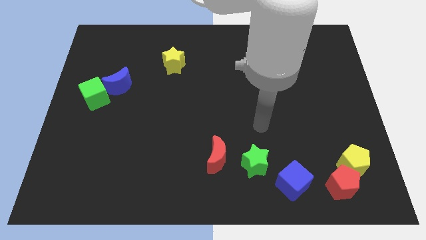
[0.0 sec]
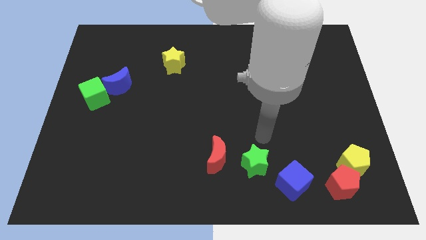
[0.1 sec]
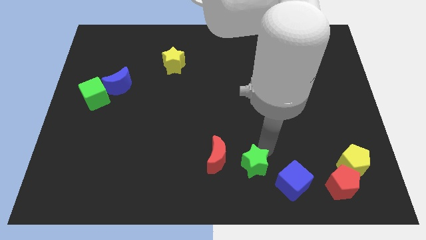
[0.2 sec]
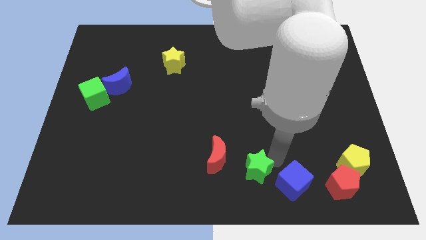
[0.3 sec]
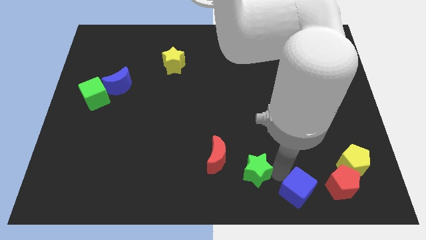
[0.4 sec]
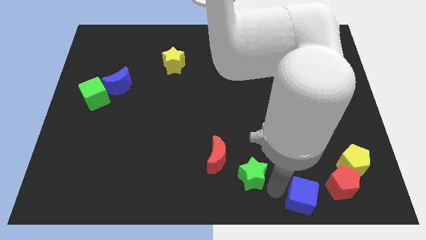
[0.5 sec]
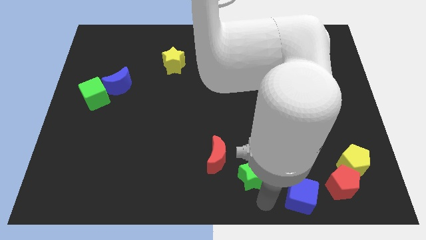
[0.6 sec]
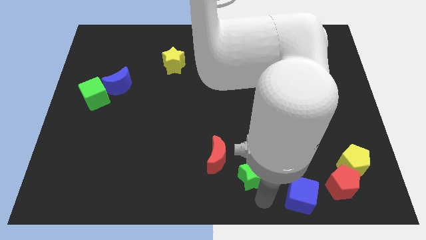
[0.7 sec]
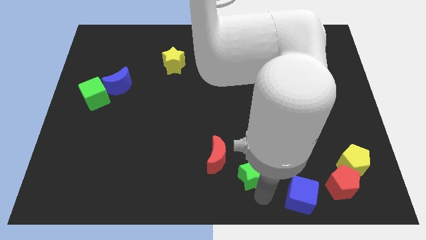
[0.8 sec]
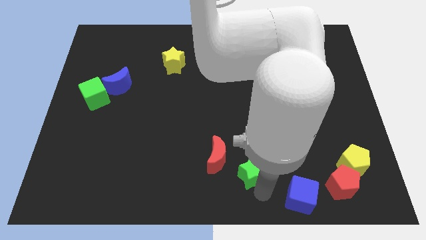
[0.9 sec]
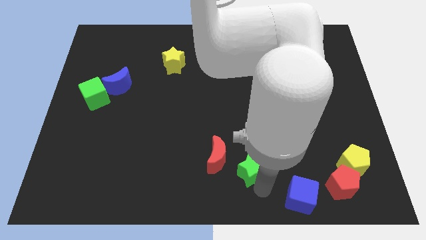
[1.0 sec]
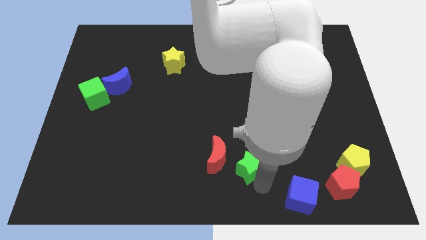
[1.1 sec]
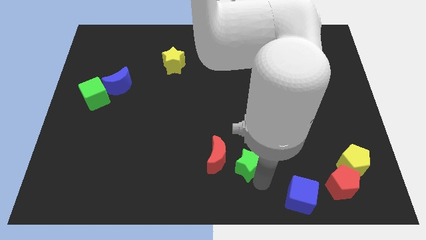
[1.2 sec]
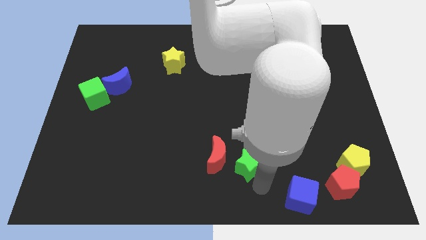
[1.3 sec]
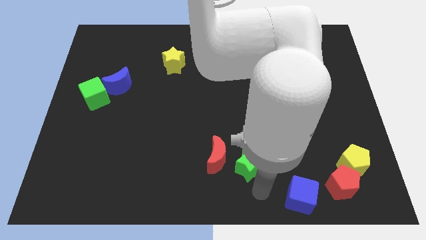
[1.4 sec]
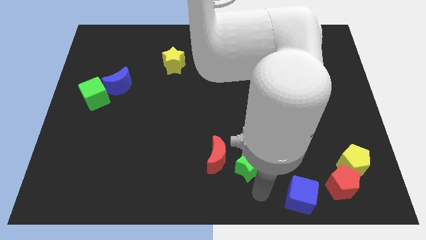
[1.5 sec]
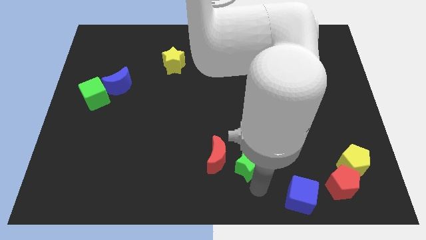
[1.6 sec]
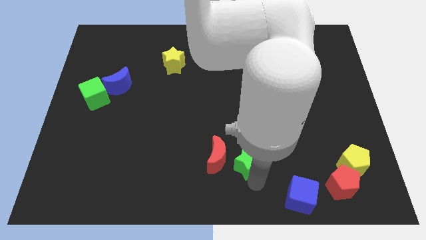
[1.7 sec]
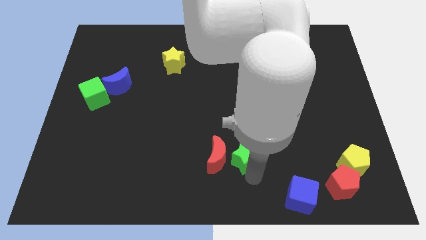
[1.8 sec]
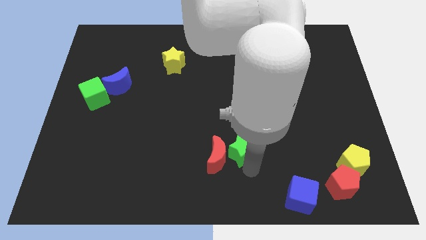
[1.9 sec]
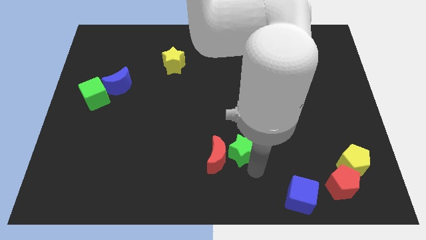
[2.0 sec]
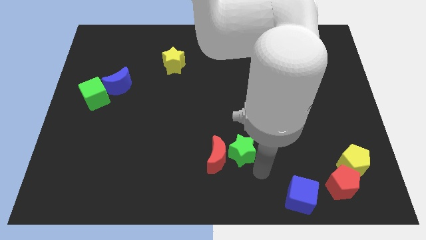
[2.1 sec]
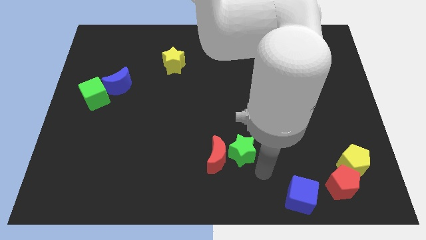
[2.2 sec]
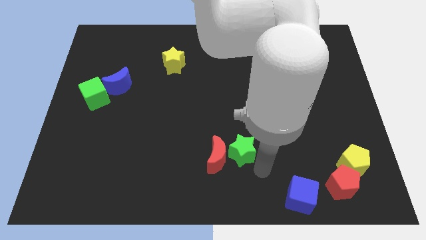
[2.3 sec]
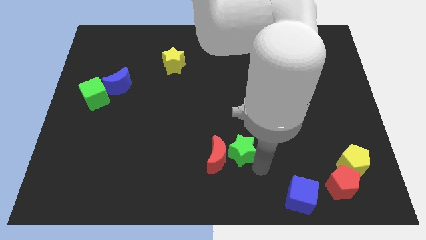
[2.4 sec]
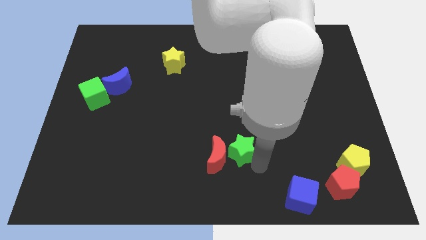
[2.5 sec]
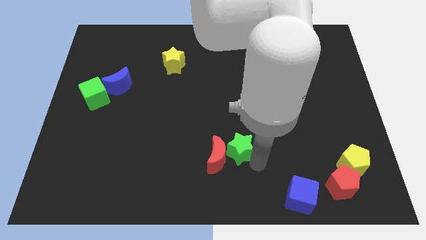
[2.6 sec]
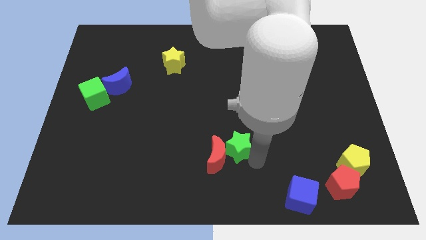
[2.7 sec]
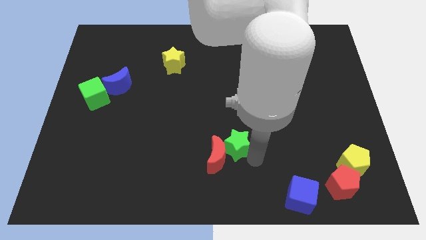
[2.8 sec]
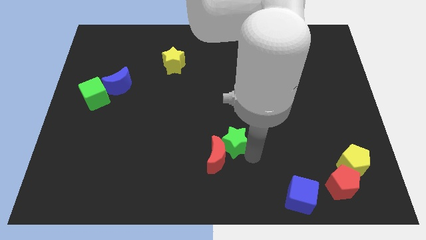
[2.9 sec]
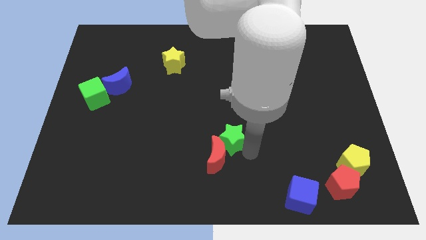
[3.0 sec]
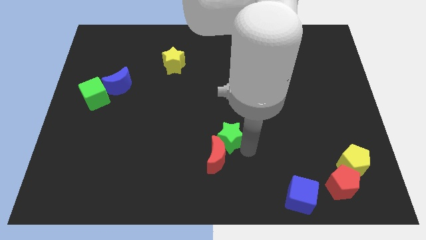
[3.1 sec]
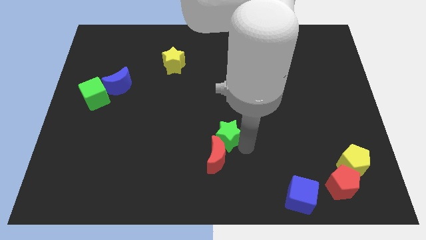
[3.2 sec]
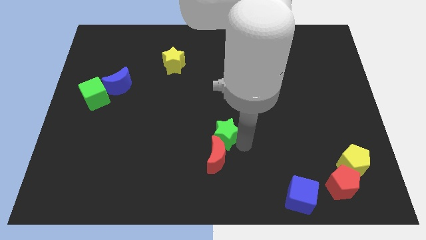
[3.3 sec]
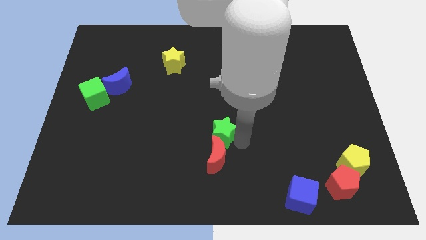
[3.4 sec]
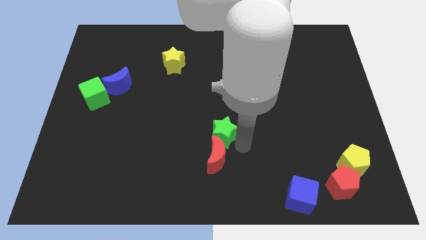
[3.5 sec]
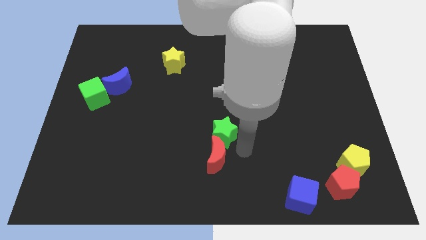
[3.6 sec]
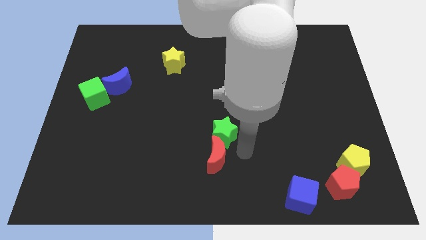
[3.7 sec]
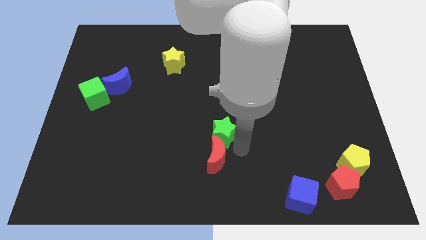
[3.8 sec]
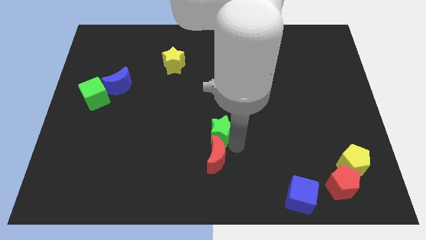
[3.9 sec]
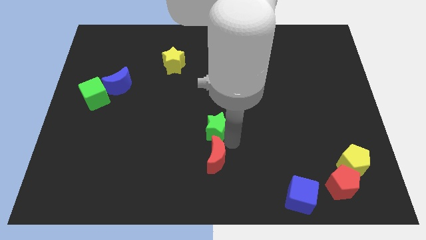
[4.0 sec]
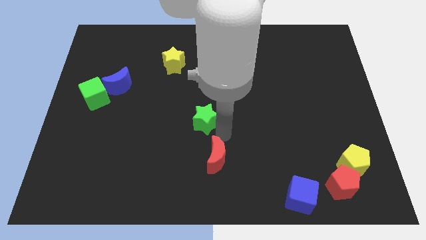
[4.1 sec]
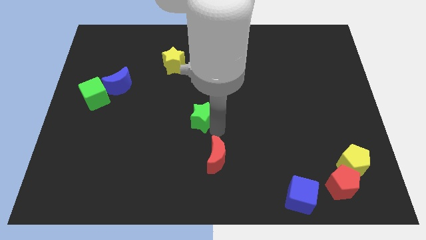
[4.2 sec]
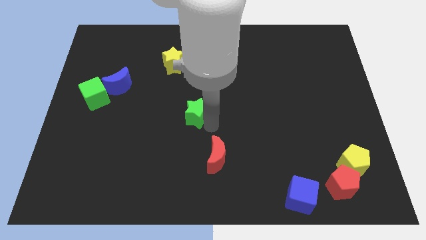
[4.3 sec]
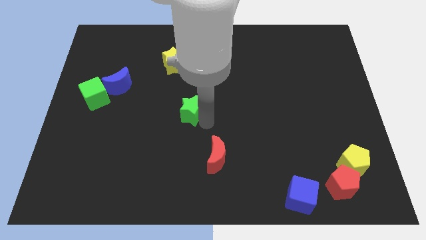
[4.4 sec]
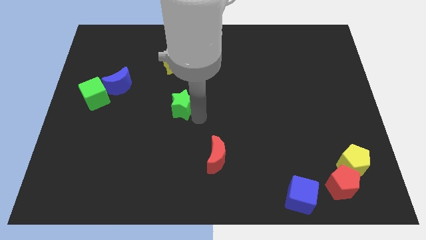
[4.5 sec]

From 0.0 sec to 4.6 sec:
move the green star upwards and to the left diagonally

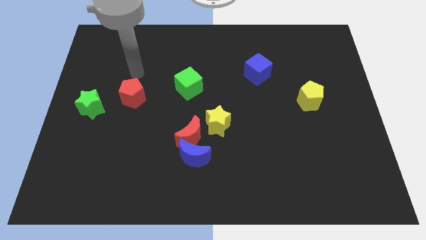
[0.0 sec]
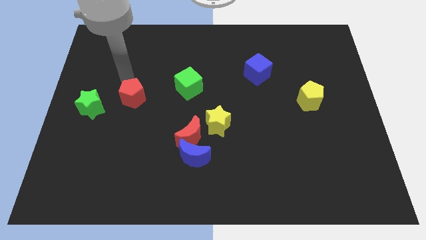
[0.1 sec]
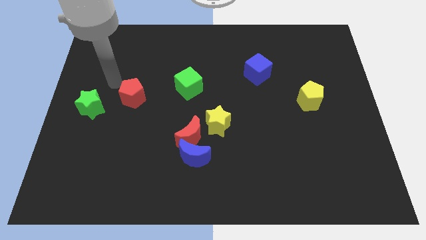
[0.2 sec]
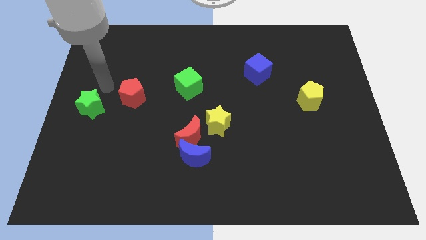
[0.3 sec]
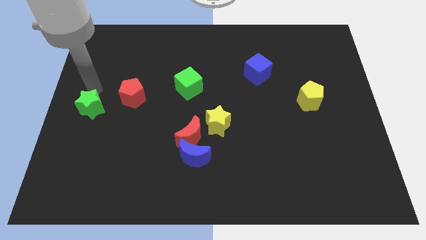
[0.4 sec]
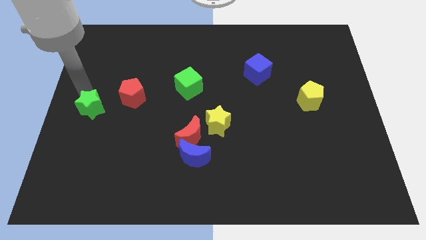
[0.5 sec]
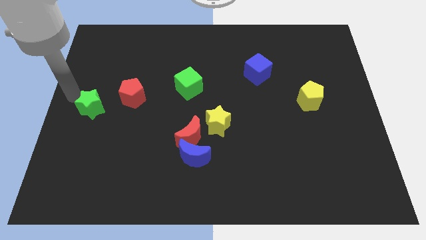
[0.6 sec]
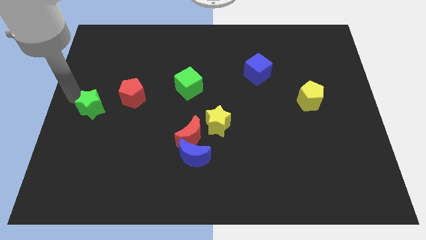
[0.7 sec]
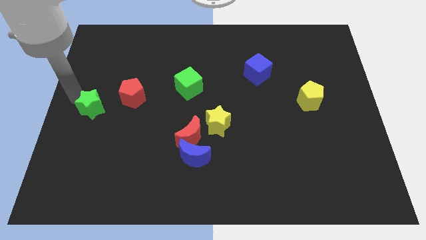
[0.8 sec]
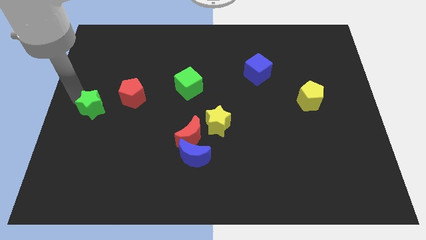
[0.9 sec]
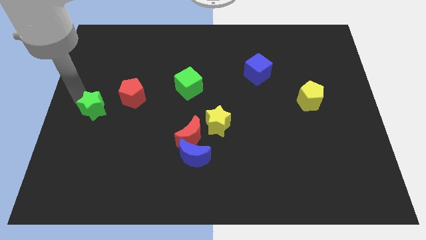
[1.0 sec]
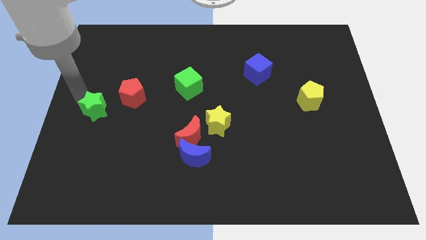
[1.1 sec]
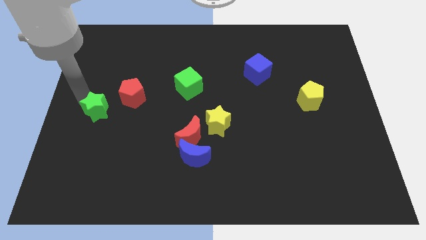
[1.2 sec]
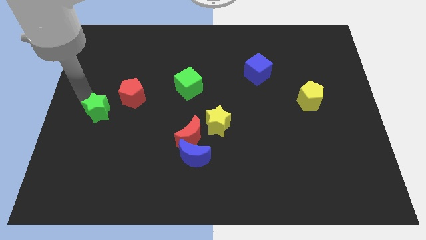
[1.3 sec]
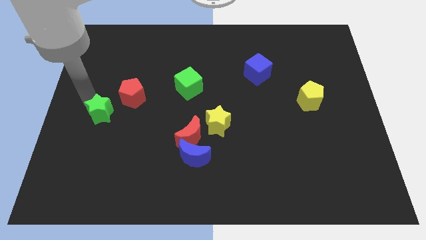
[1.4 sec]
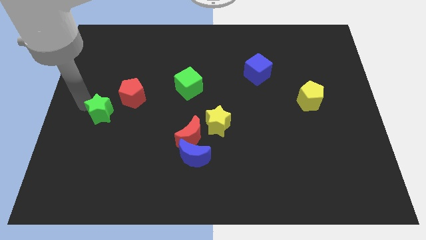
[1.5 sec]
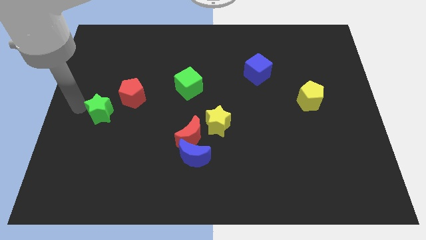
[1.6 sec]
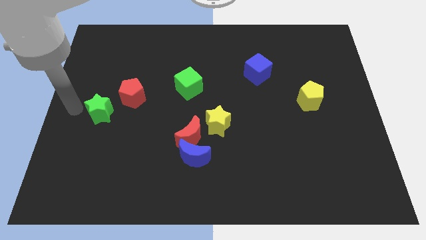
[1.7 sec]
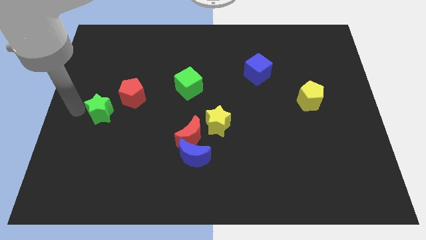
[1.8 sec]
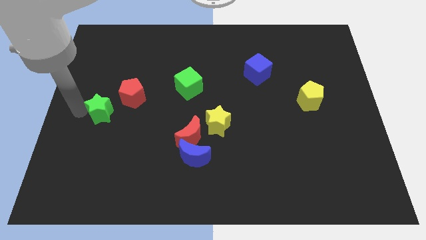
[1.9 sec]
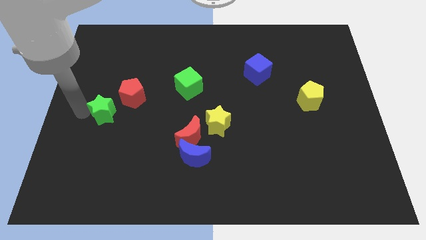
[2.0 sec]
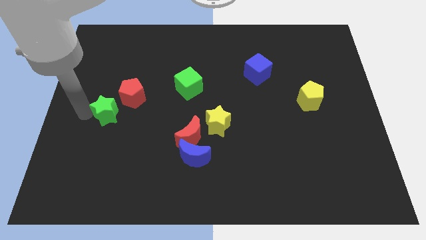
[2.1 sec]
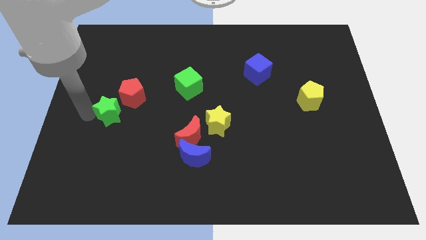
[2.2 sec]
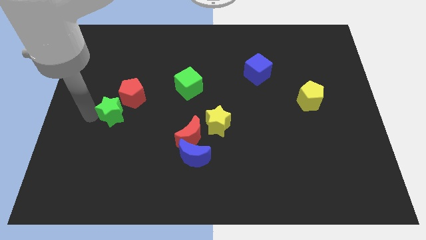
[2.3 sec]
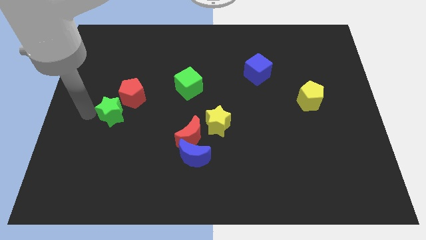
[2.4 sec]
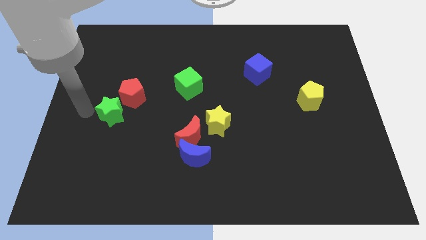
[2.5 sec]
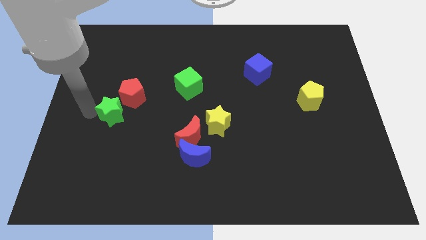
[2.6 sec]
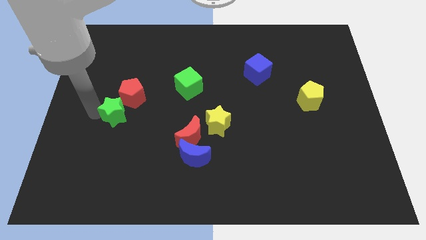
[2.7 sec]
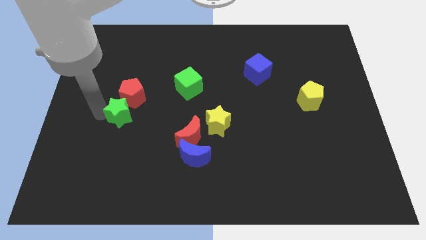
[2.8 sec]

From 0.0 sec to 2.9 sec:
push the green star a little to the right

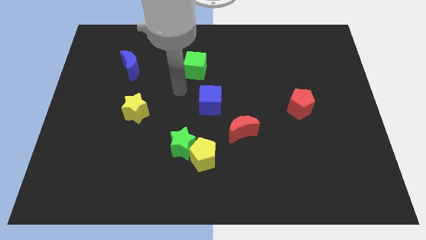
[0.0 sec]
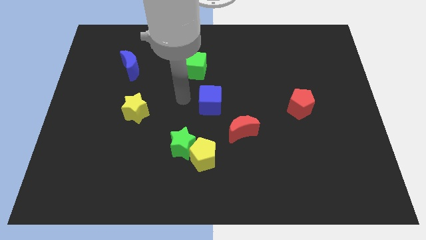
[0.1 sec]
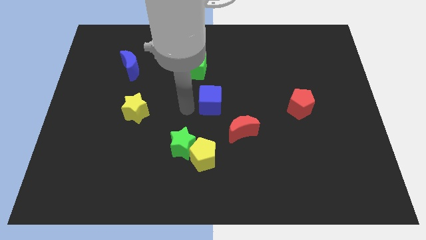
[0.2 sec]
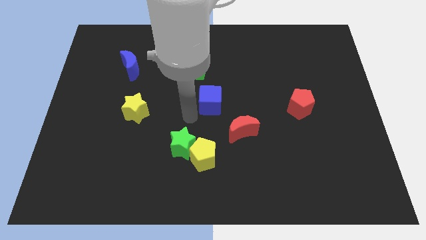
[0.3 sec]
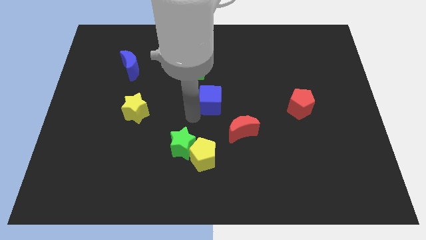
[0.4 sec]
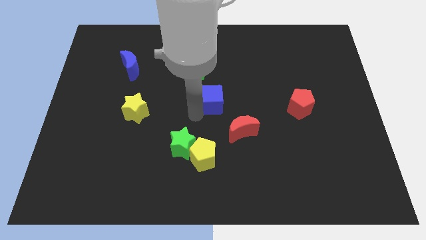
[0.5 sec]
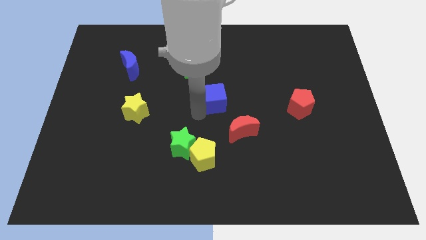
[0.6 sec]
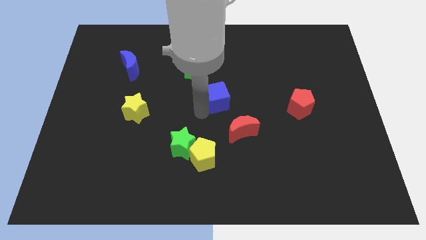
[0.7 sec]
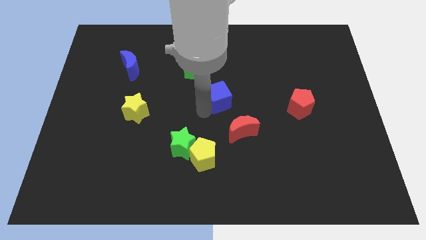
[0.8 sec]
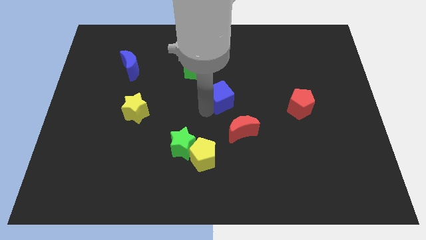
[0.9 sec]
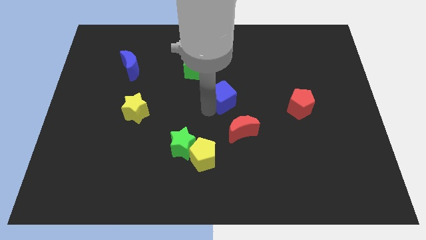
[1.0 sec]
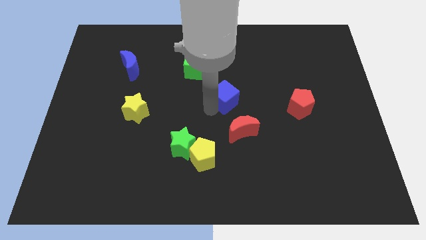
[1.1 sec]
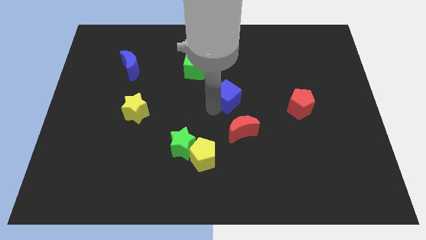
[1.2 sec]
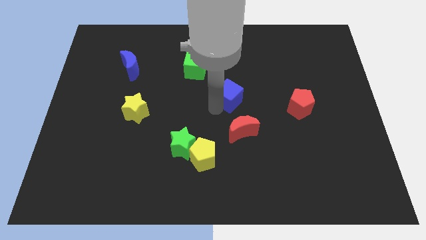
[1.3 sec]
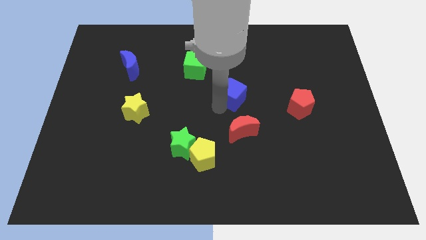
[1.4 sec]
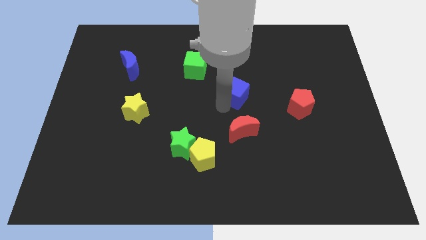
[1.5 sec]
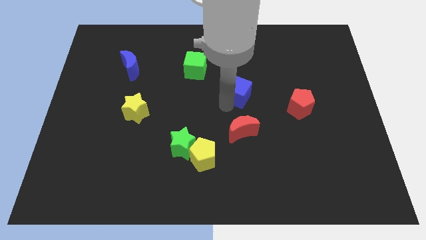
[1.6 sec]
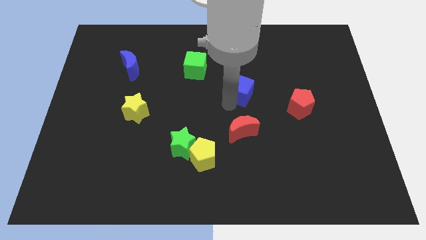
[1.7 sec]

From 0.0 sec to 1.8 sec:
move the blue cube up and to the right somewhat
